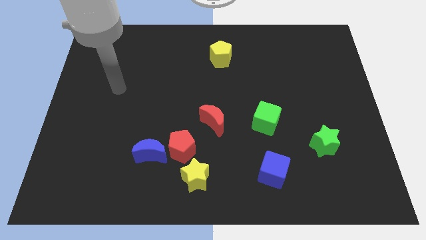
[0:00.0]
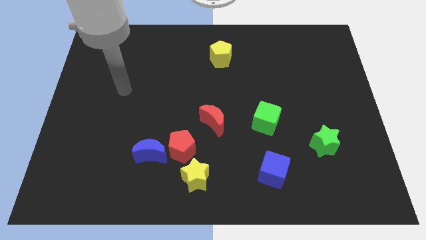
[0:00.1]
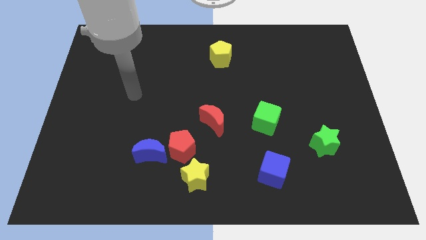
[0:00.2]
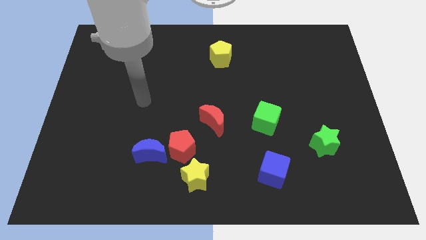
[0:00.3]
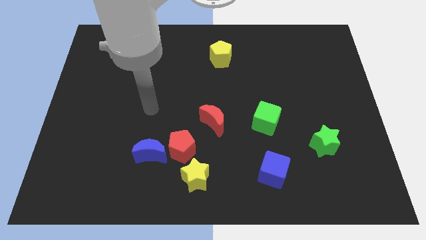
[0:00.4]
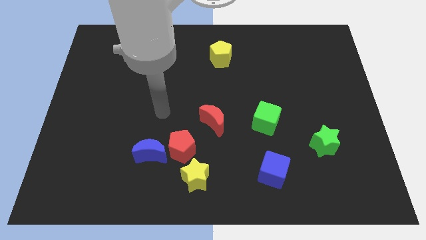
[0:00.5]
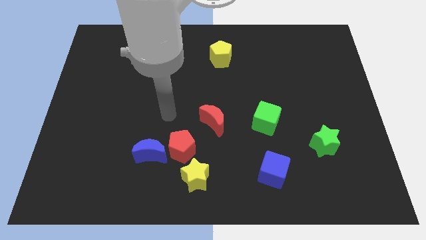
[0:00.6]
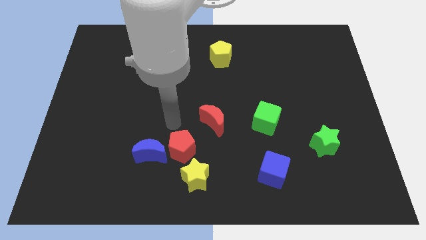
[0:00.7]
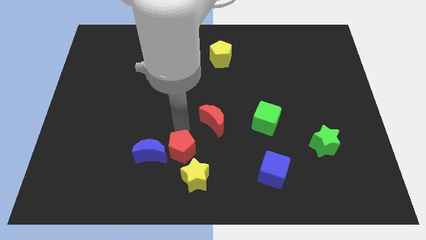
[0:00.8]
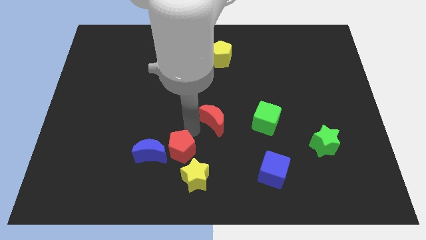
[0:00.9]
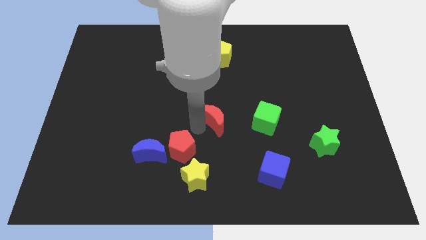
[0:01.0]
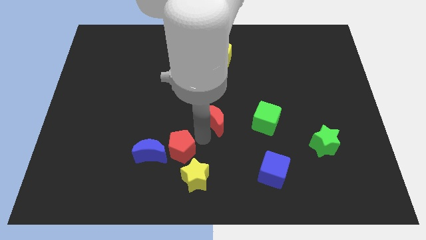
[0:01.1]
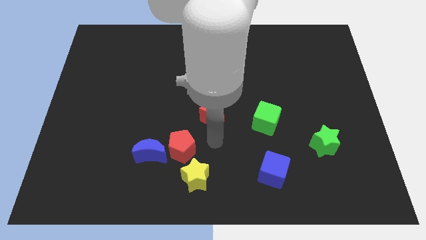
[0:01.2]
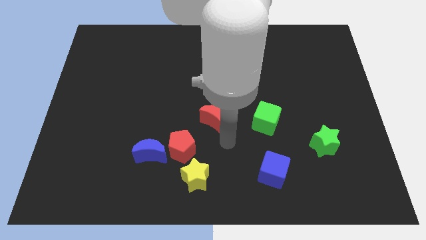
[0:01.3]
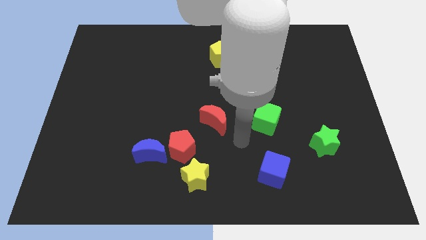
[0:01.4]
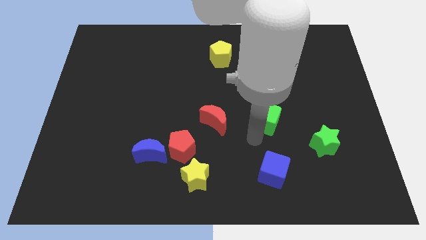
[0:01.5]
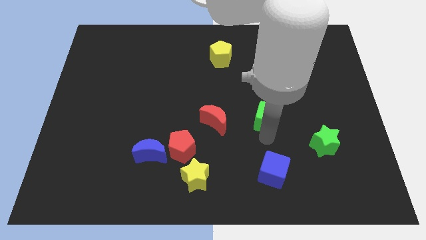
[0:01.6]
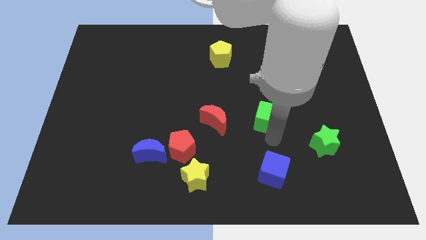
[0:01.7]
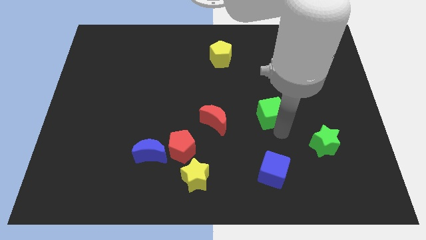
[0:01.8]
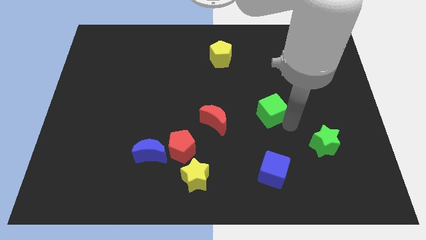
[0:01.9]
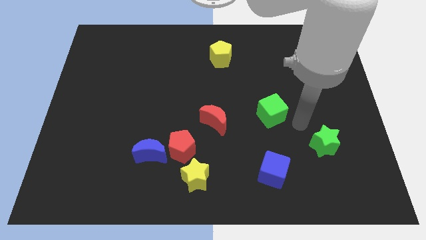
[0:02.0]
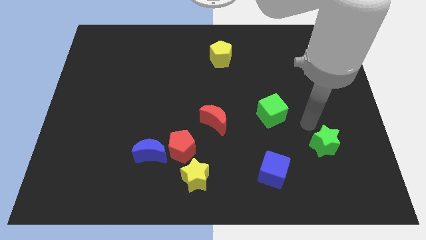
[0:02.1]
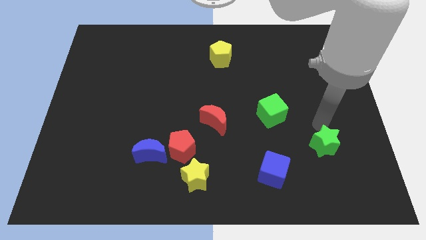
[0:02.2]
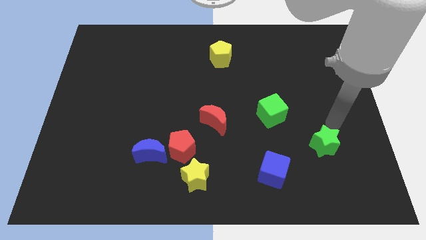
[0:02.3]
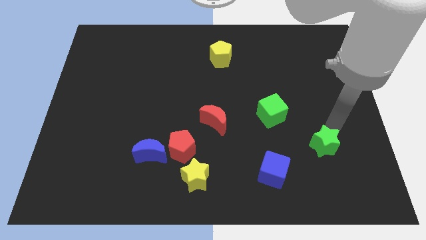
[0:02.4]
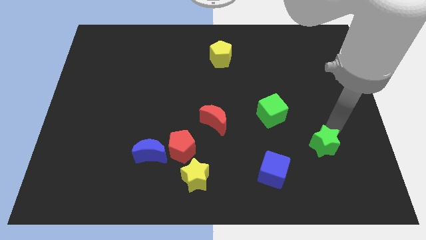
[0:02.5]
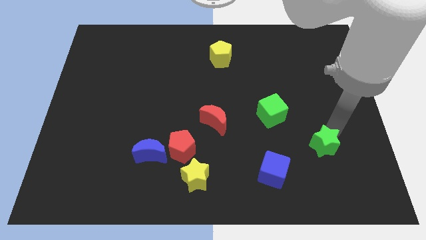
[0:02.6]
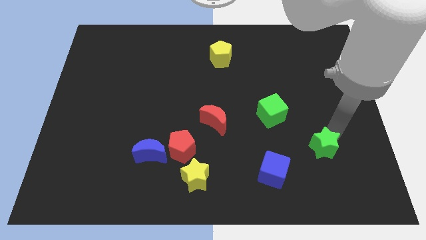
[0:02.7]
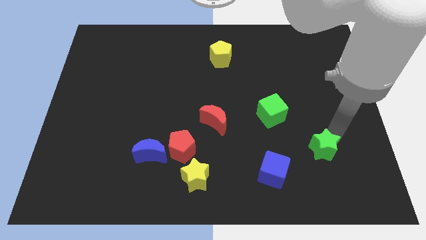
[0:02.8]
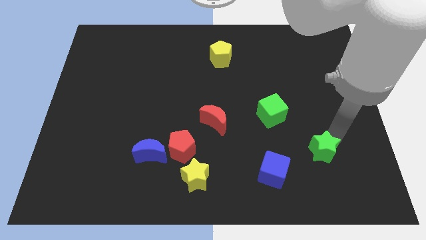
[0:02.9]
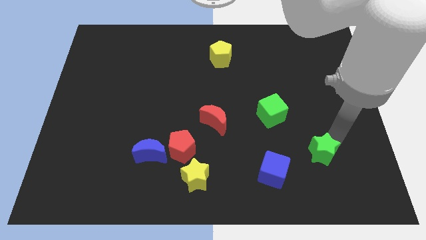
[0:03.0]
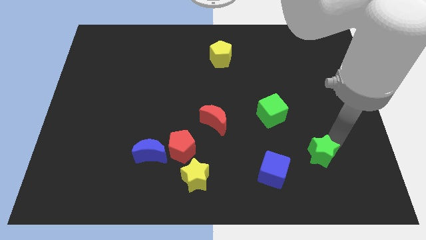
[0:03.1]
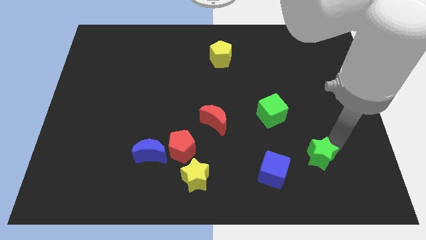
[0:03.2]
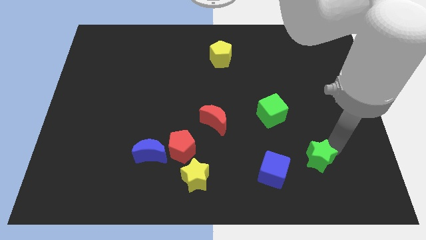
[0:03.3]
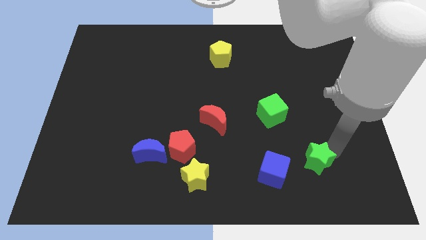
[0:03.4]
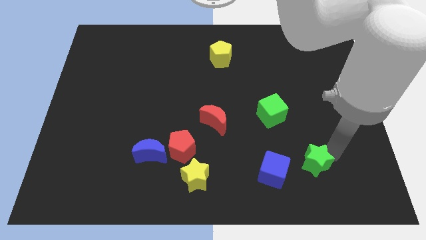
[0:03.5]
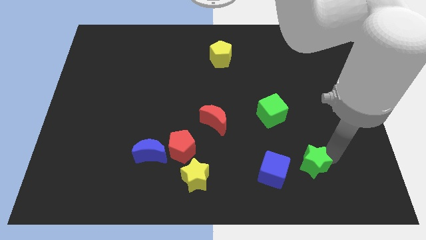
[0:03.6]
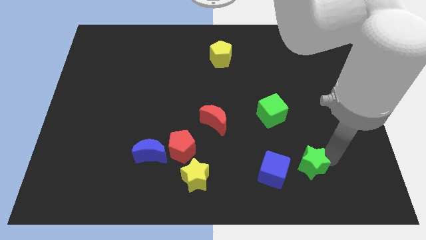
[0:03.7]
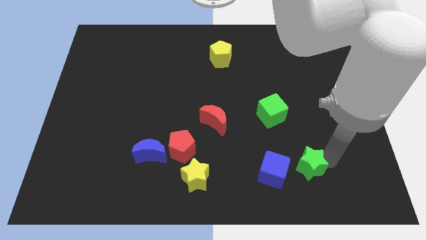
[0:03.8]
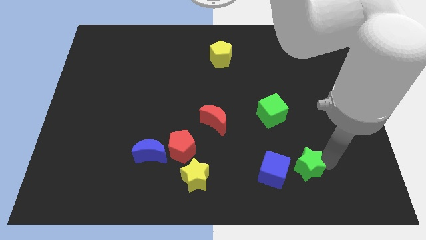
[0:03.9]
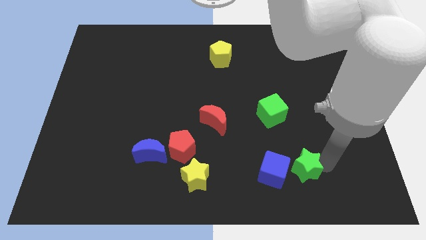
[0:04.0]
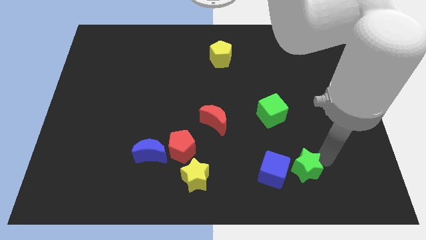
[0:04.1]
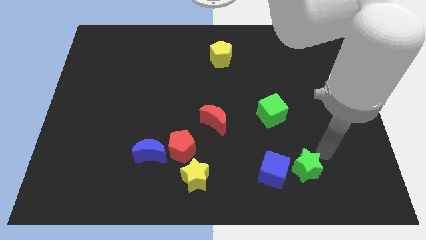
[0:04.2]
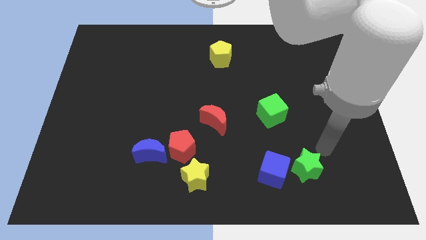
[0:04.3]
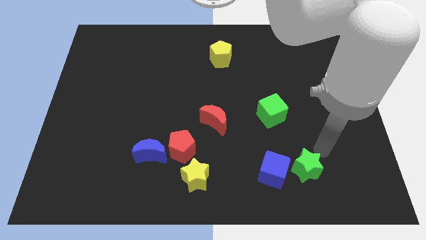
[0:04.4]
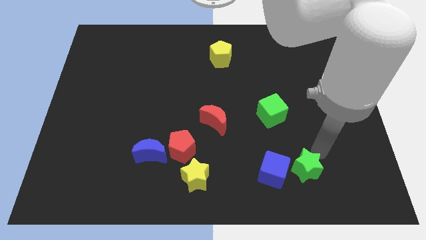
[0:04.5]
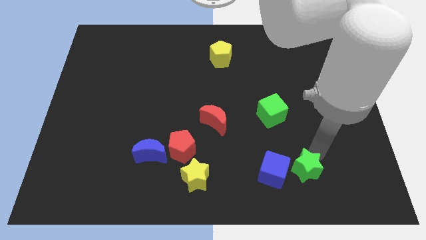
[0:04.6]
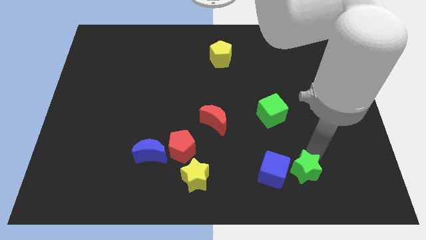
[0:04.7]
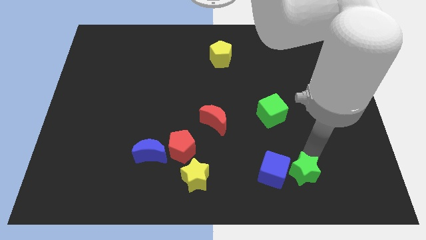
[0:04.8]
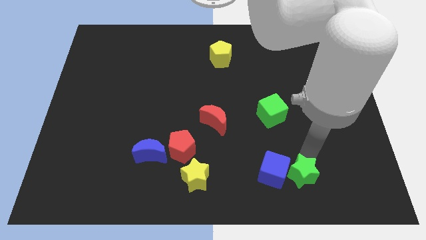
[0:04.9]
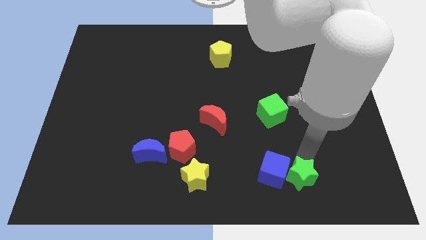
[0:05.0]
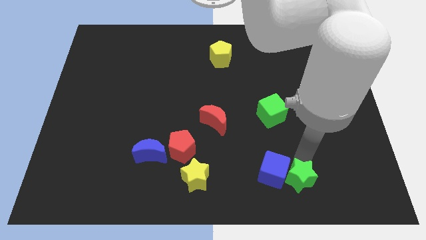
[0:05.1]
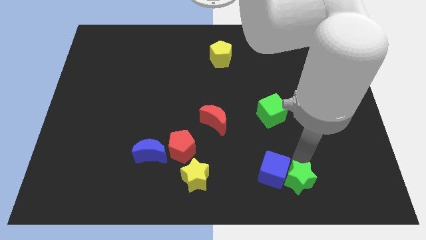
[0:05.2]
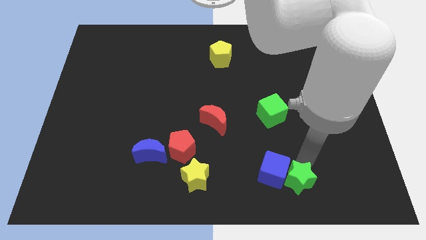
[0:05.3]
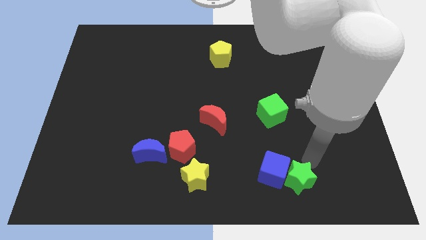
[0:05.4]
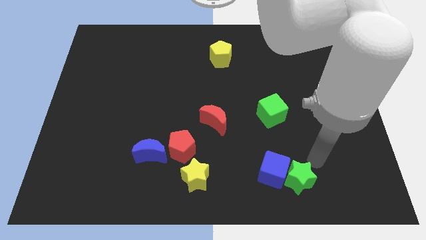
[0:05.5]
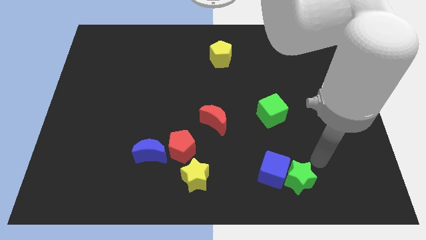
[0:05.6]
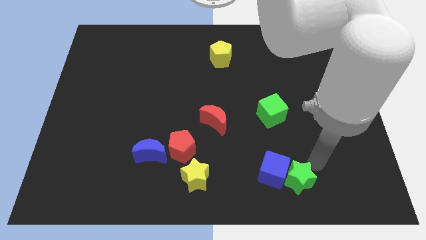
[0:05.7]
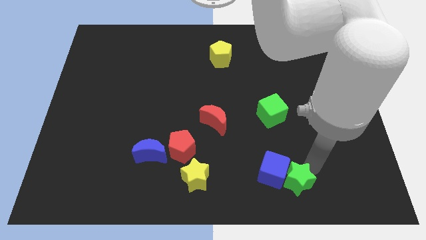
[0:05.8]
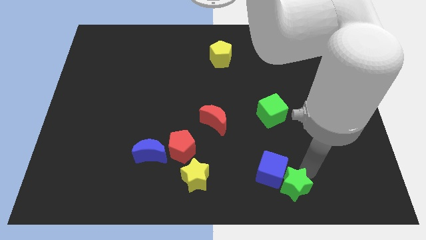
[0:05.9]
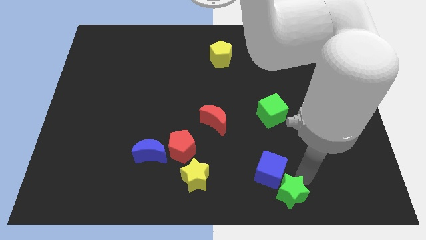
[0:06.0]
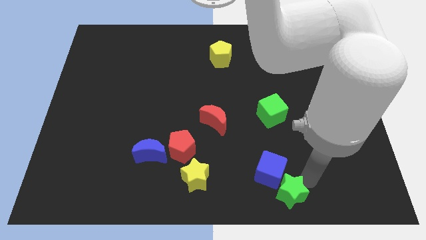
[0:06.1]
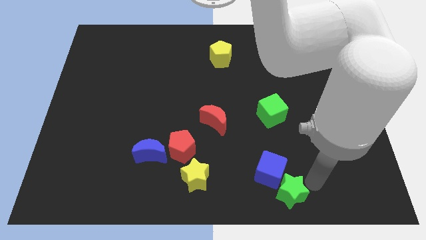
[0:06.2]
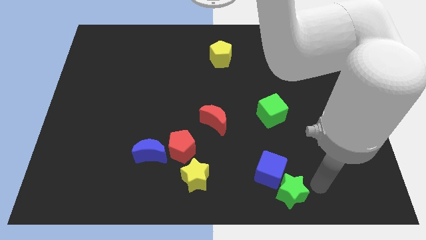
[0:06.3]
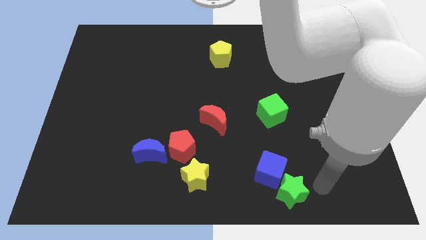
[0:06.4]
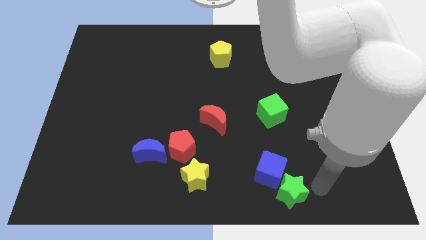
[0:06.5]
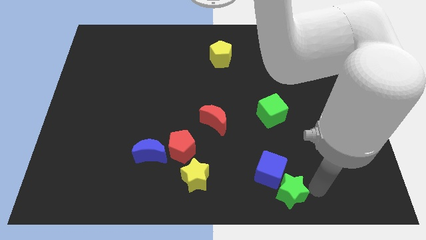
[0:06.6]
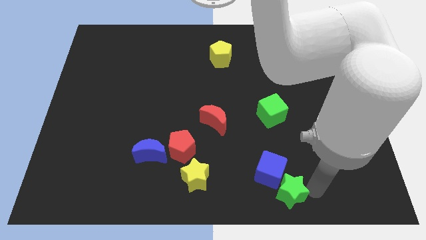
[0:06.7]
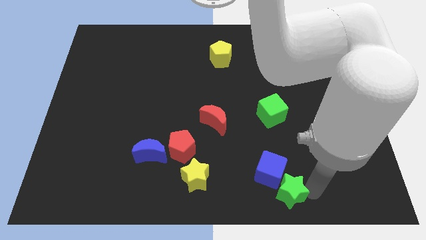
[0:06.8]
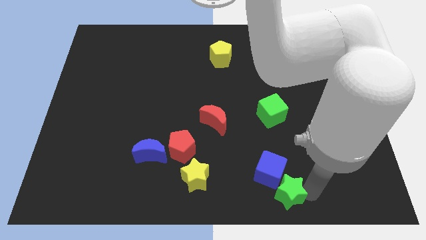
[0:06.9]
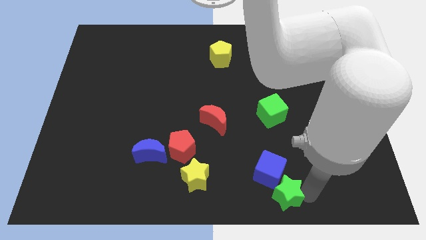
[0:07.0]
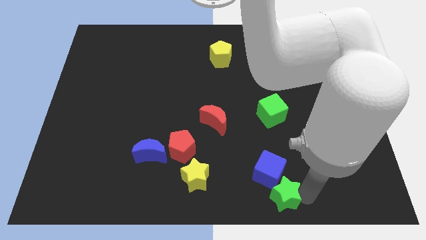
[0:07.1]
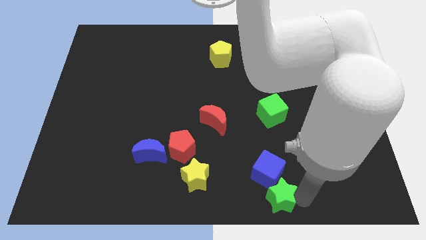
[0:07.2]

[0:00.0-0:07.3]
push the green star to the bottom

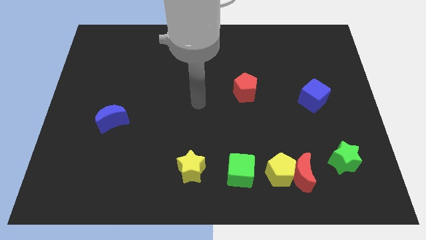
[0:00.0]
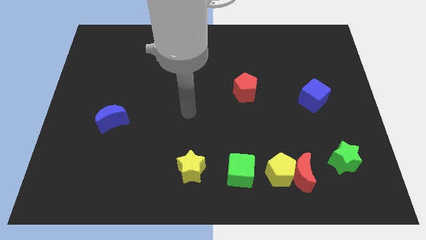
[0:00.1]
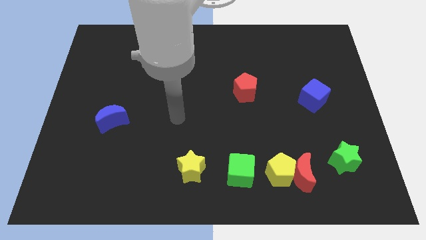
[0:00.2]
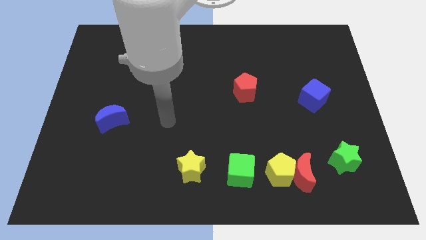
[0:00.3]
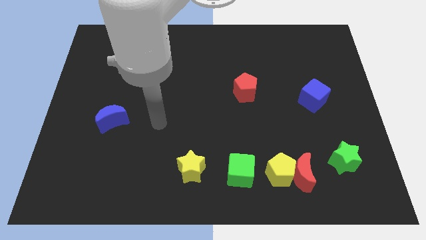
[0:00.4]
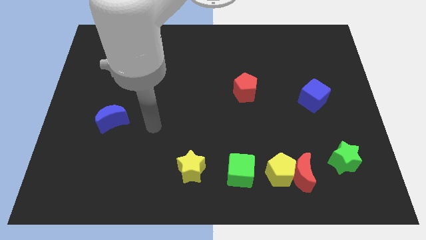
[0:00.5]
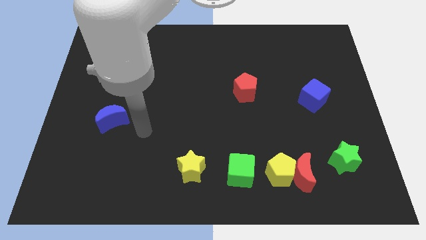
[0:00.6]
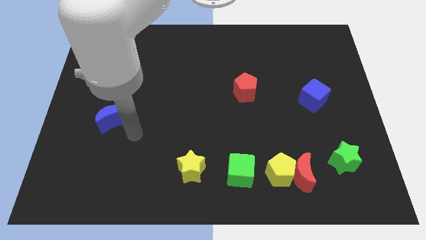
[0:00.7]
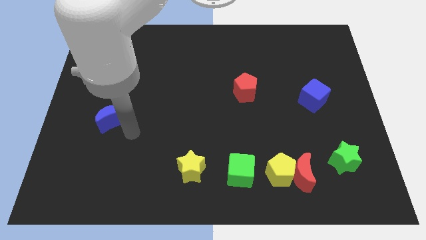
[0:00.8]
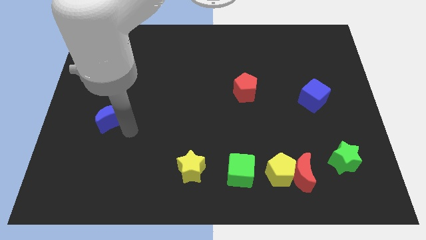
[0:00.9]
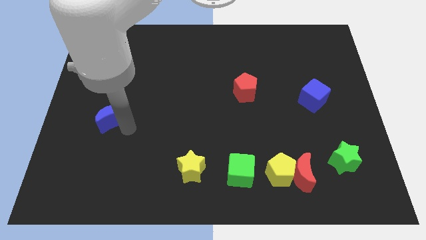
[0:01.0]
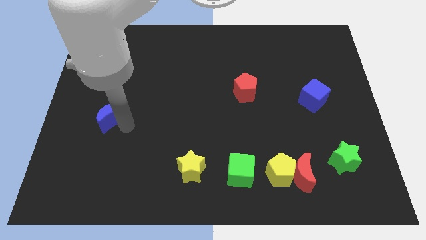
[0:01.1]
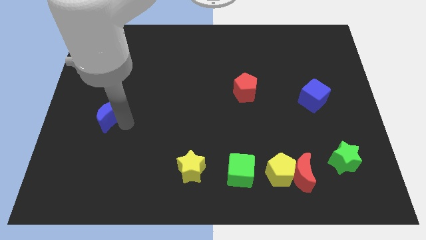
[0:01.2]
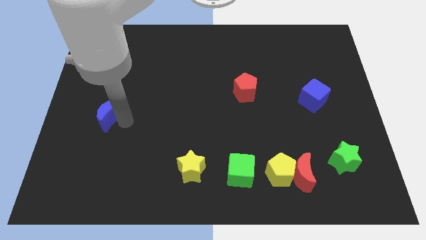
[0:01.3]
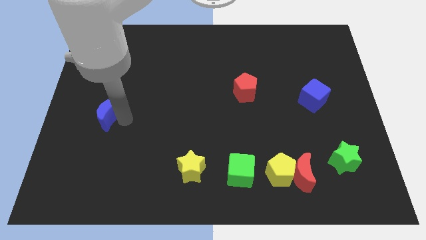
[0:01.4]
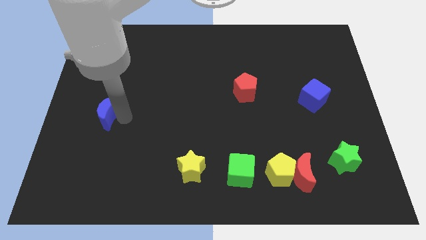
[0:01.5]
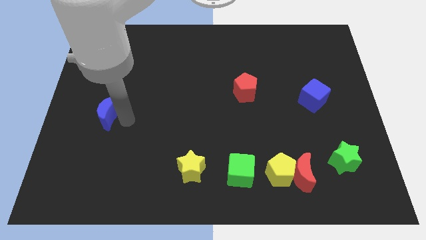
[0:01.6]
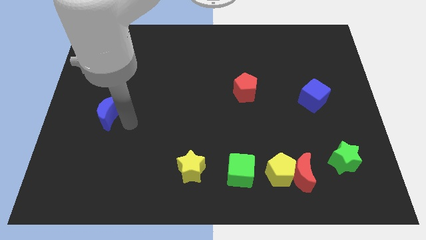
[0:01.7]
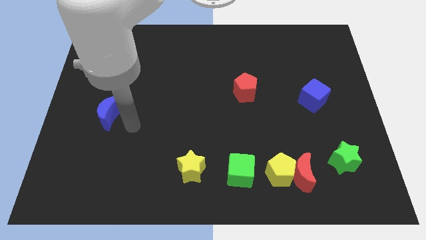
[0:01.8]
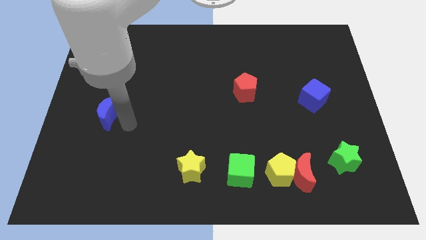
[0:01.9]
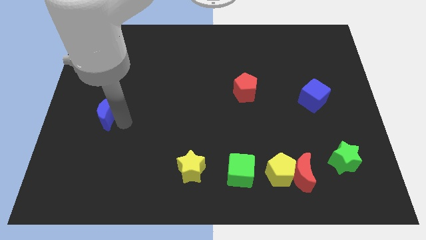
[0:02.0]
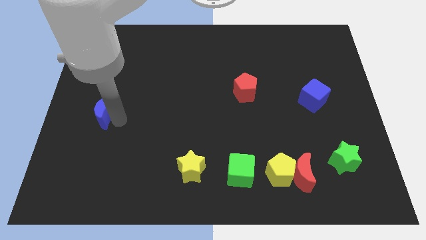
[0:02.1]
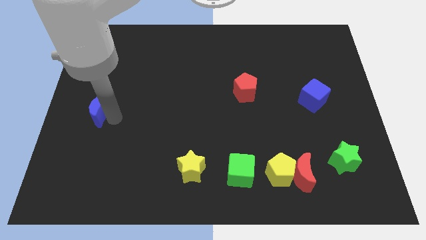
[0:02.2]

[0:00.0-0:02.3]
slide the blue moon to the center left
